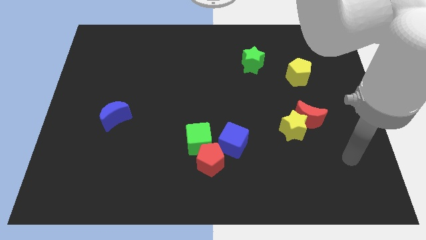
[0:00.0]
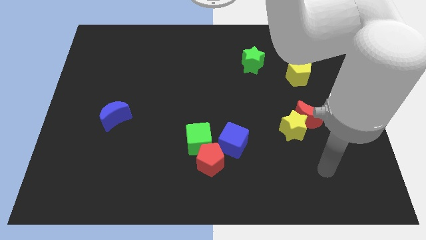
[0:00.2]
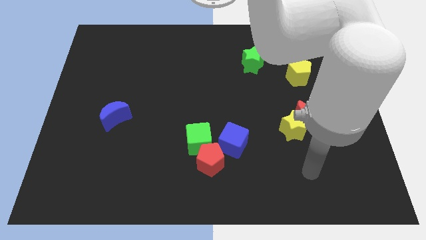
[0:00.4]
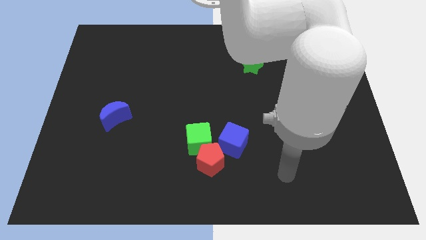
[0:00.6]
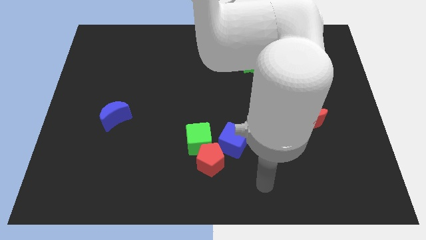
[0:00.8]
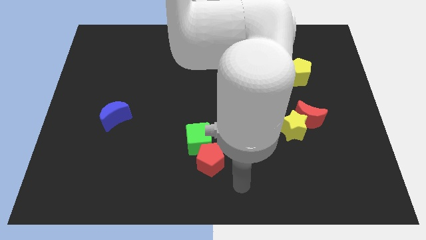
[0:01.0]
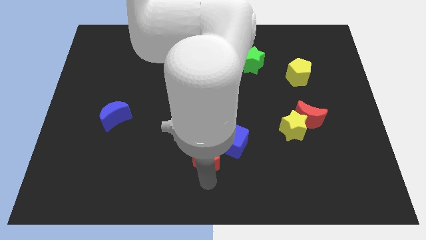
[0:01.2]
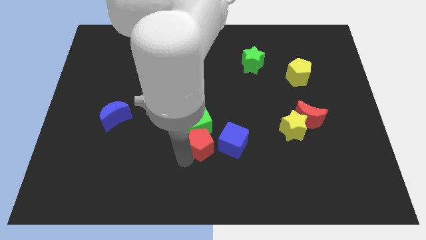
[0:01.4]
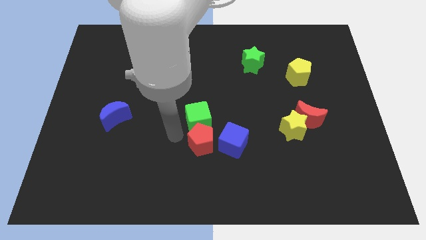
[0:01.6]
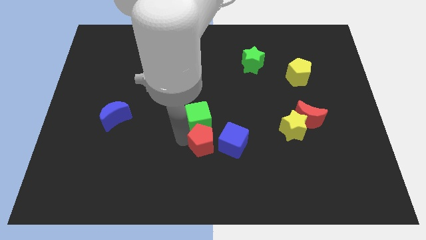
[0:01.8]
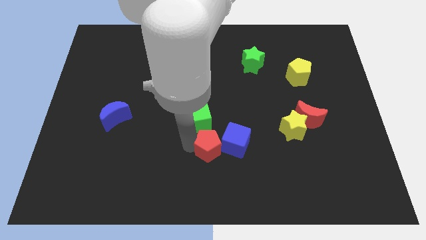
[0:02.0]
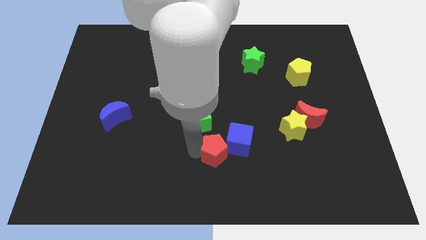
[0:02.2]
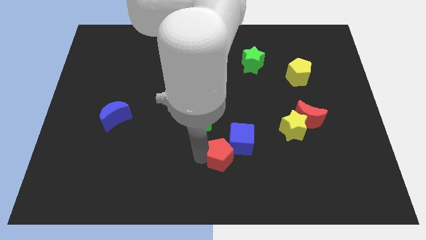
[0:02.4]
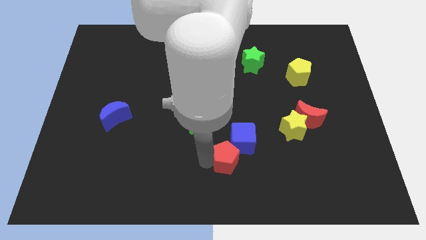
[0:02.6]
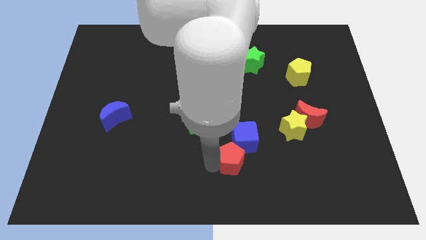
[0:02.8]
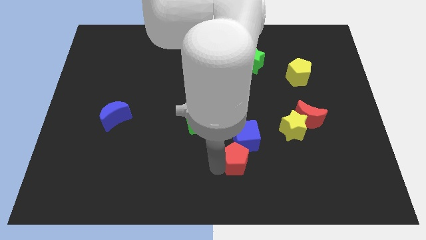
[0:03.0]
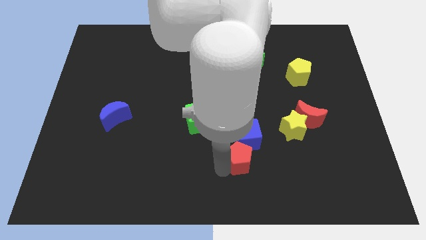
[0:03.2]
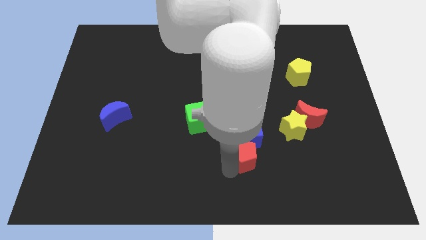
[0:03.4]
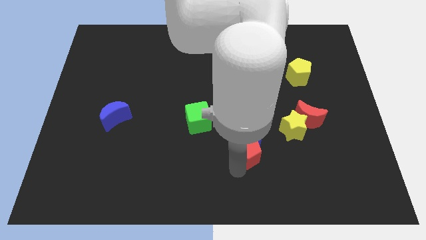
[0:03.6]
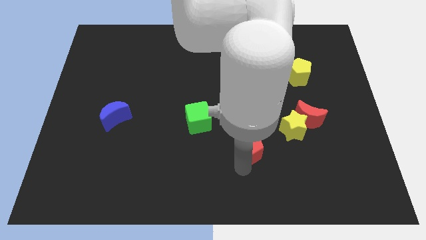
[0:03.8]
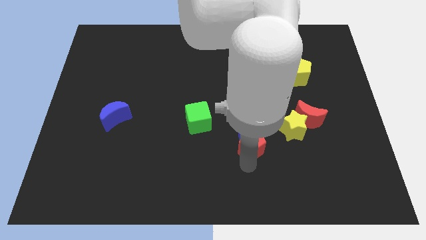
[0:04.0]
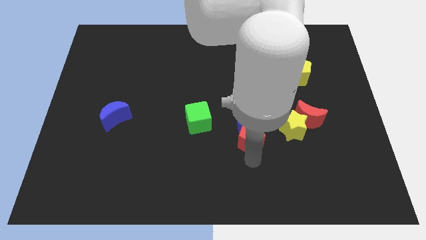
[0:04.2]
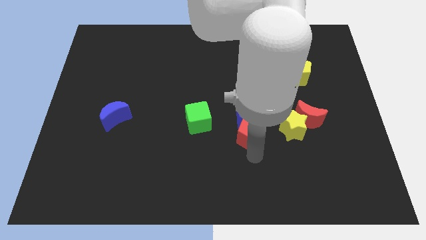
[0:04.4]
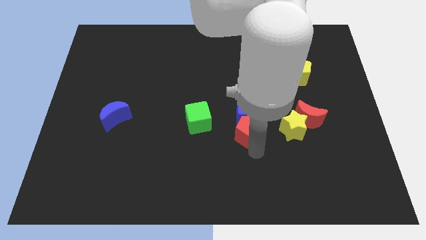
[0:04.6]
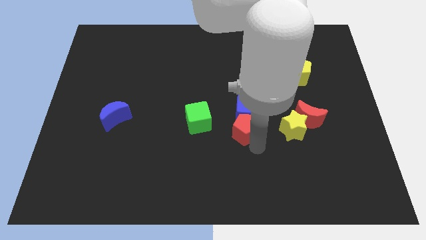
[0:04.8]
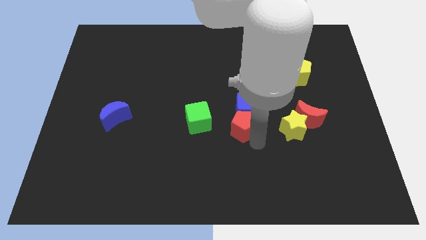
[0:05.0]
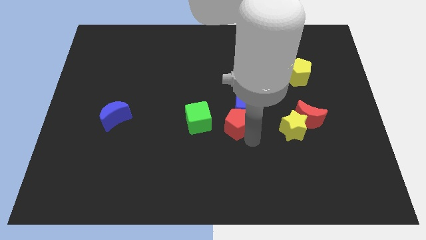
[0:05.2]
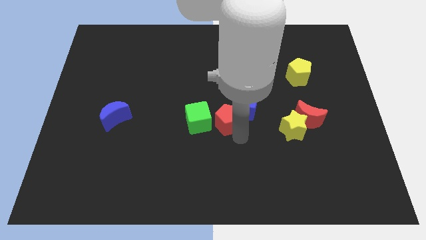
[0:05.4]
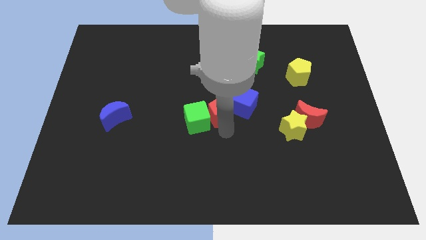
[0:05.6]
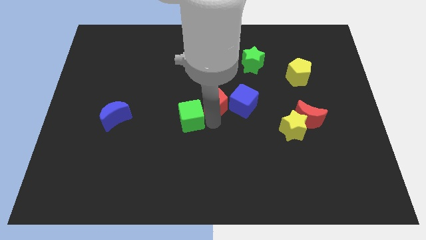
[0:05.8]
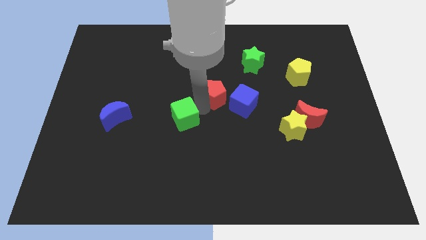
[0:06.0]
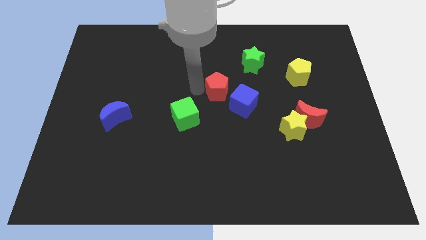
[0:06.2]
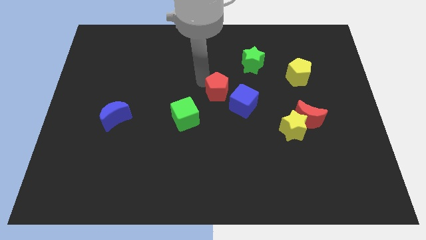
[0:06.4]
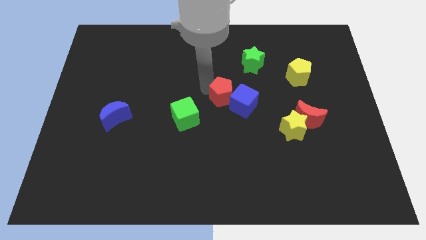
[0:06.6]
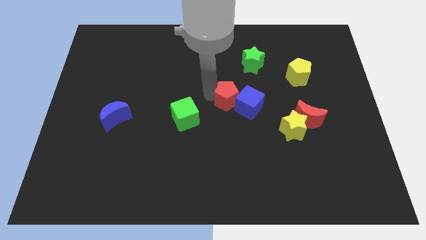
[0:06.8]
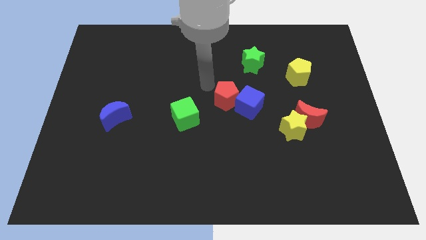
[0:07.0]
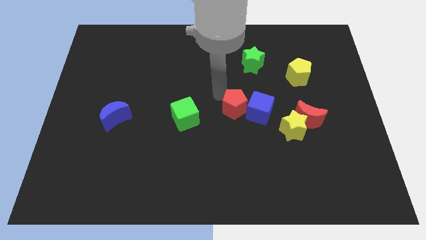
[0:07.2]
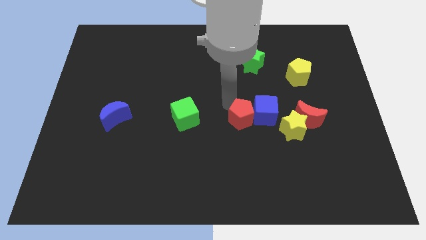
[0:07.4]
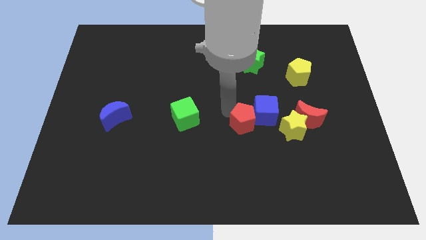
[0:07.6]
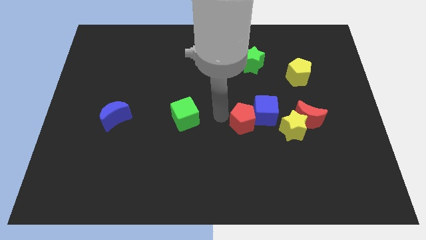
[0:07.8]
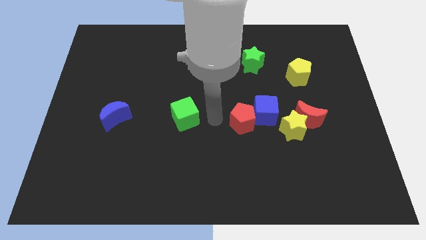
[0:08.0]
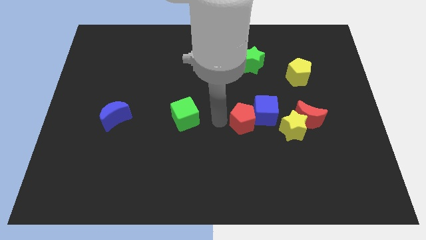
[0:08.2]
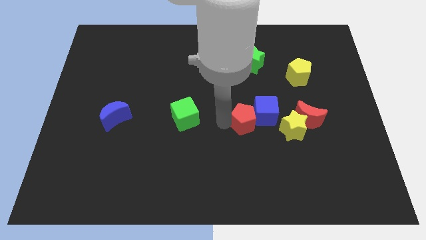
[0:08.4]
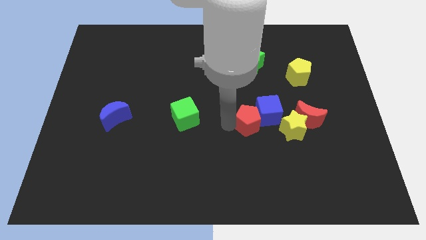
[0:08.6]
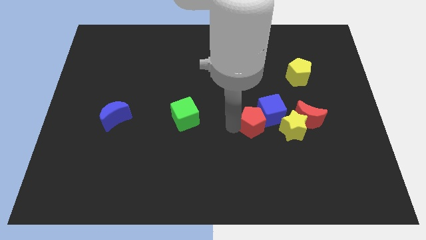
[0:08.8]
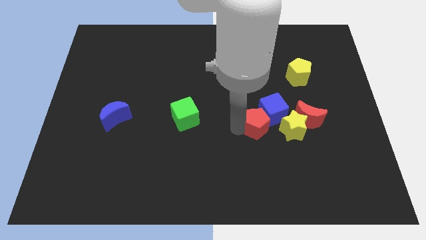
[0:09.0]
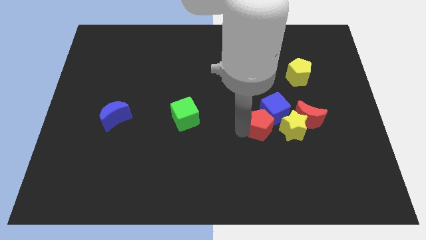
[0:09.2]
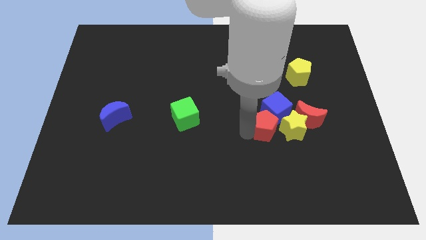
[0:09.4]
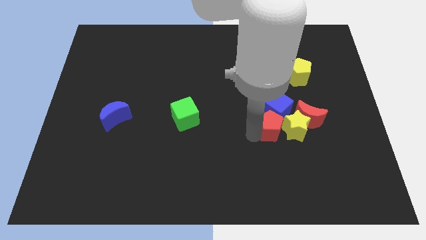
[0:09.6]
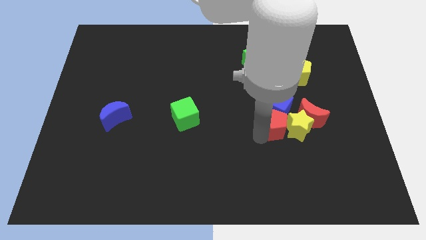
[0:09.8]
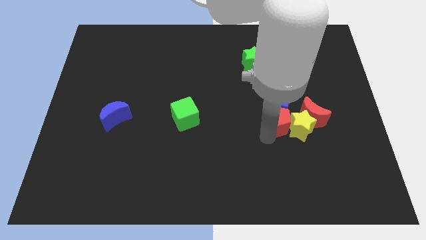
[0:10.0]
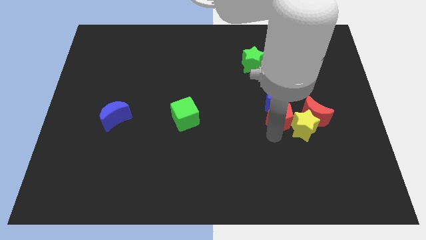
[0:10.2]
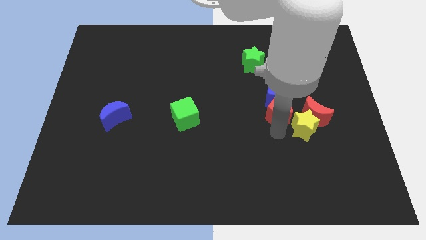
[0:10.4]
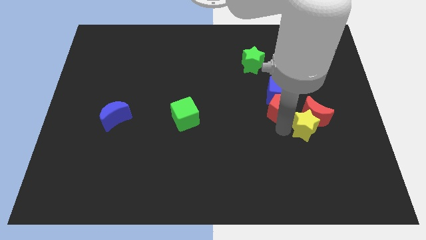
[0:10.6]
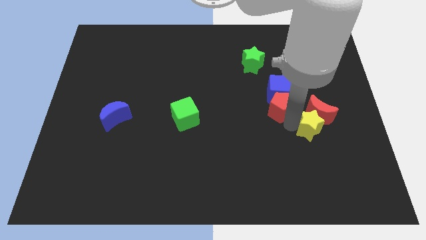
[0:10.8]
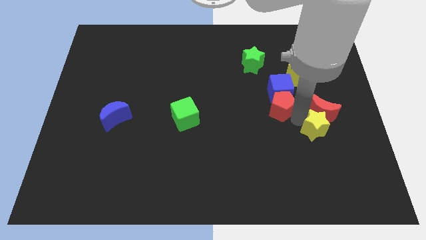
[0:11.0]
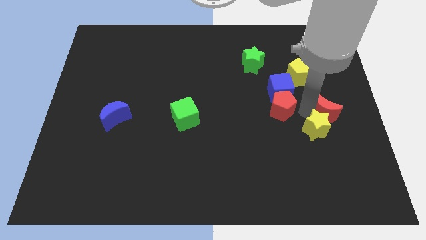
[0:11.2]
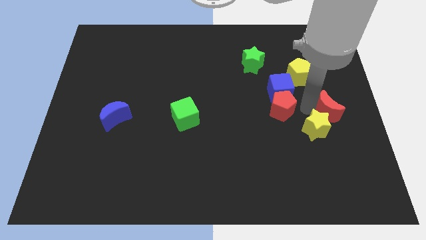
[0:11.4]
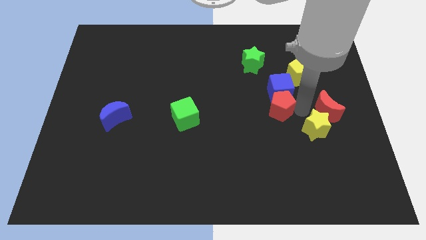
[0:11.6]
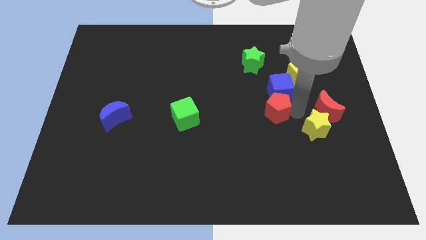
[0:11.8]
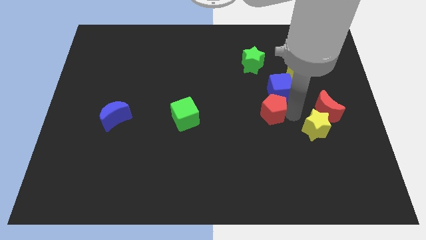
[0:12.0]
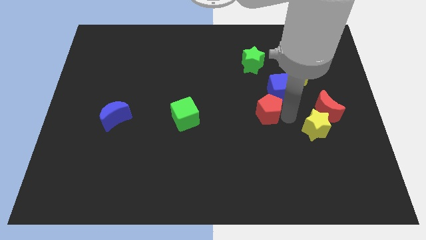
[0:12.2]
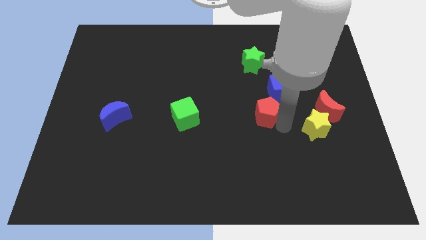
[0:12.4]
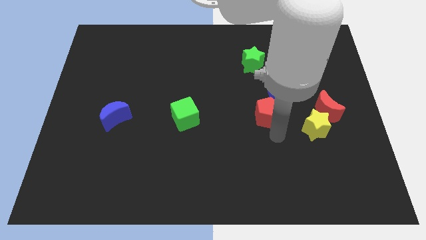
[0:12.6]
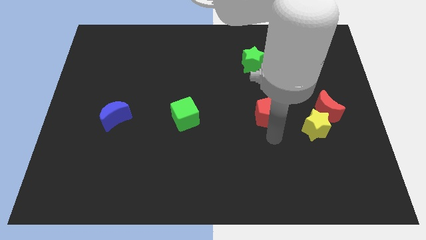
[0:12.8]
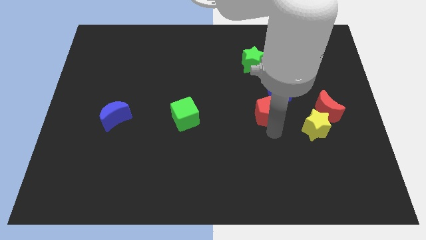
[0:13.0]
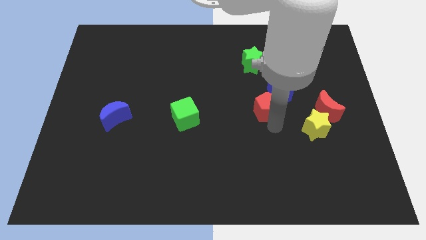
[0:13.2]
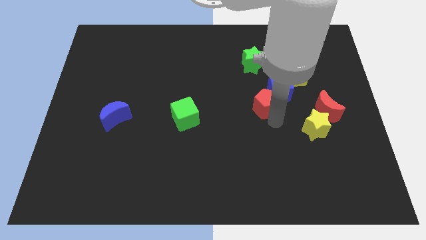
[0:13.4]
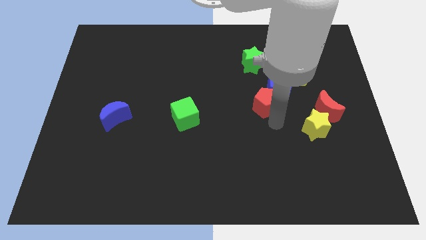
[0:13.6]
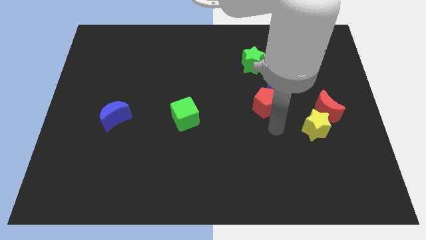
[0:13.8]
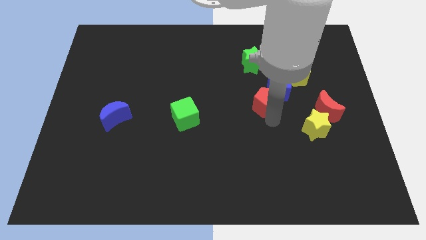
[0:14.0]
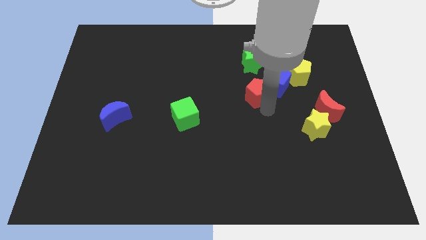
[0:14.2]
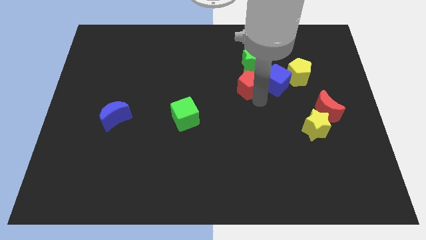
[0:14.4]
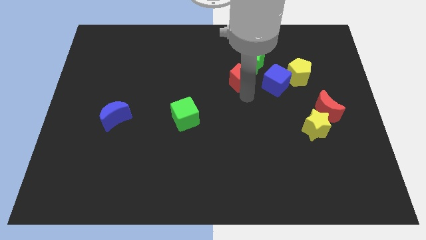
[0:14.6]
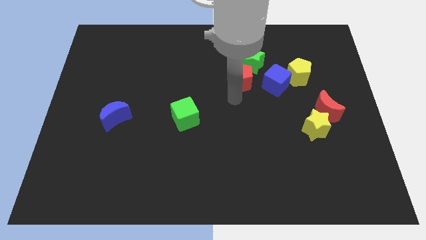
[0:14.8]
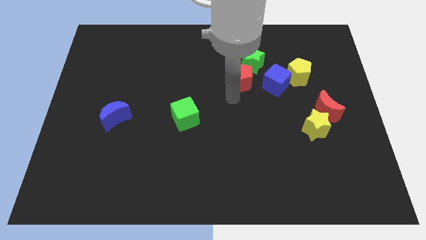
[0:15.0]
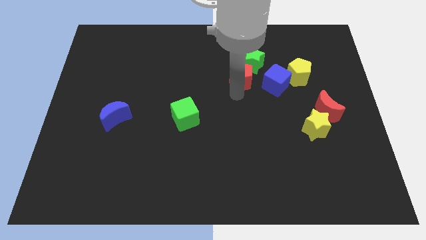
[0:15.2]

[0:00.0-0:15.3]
put the red pentagon to the green star
